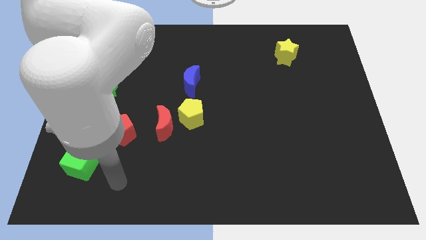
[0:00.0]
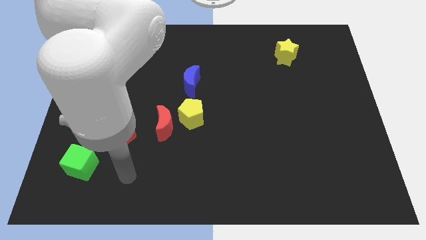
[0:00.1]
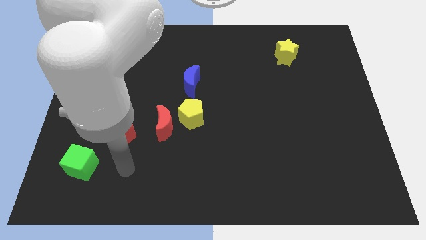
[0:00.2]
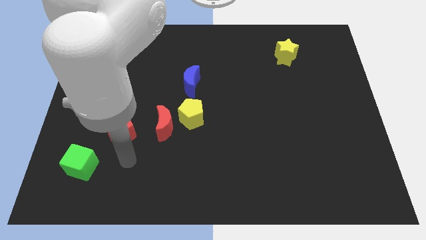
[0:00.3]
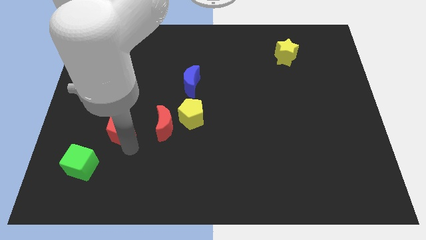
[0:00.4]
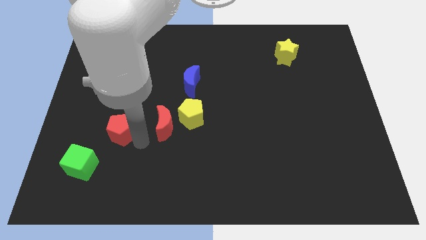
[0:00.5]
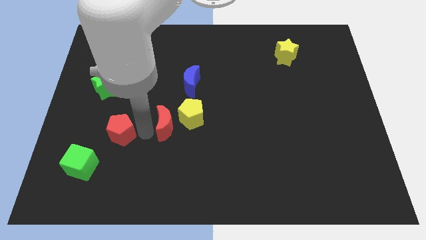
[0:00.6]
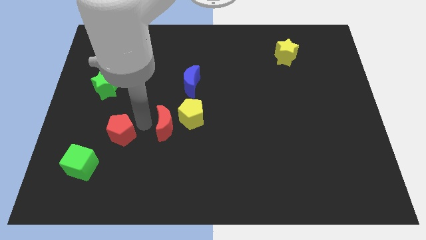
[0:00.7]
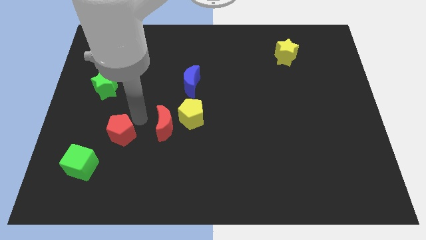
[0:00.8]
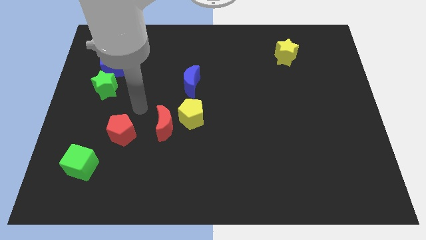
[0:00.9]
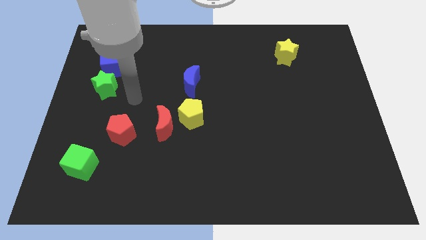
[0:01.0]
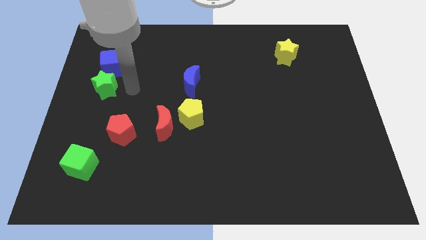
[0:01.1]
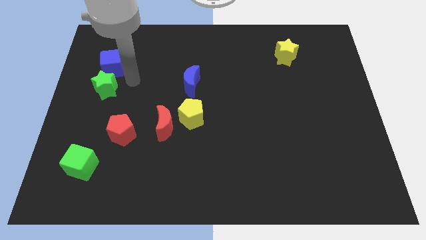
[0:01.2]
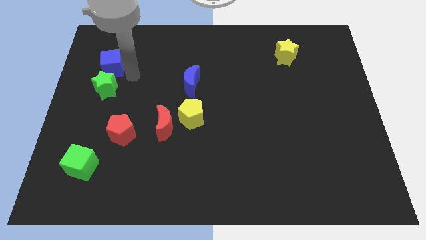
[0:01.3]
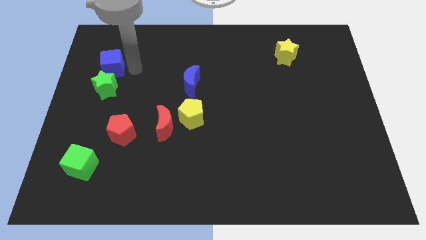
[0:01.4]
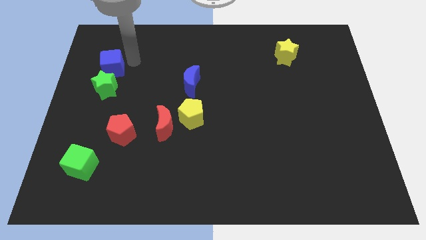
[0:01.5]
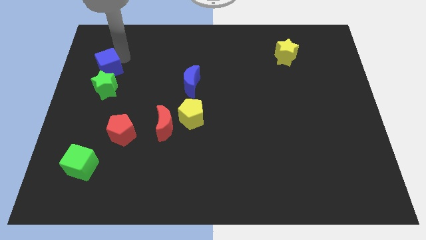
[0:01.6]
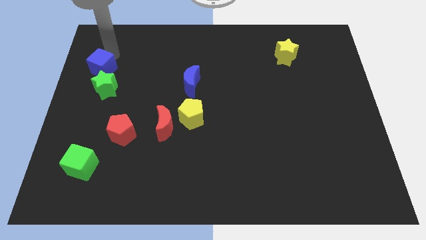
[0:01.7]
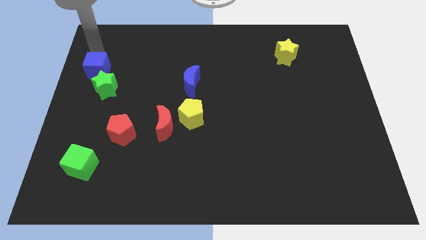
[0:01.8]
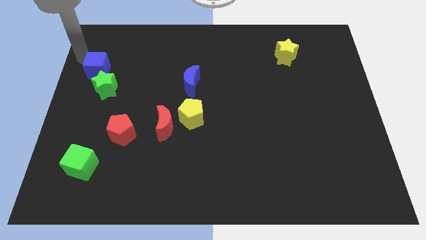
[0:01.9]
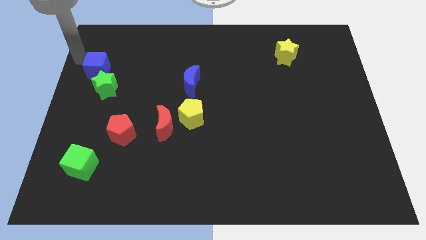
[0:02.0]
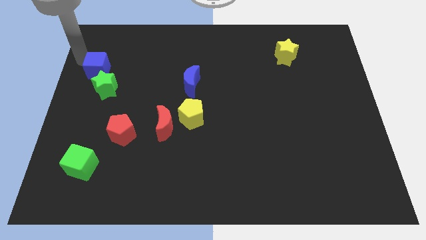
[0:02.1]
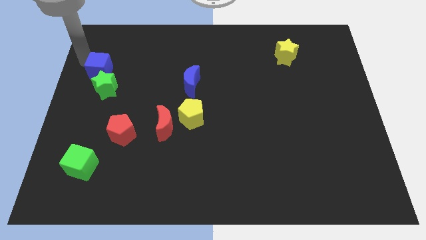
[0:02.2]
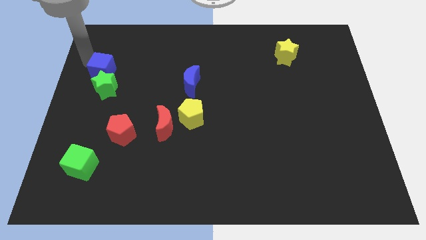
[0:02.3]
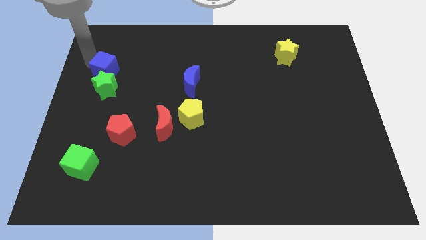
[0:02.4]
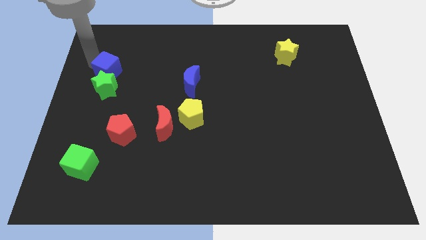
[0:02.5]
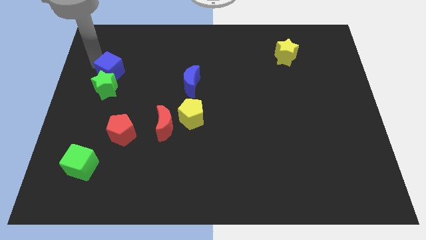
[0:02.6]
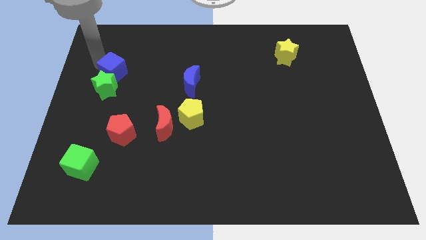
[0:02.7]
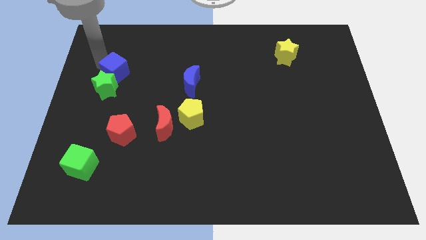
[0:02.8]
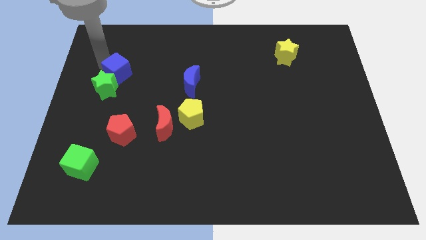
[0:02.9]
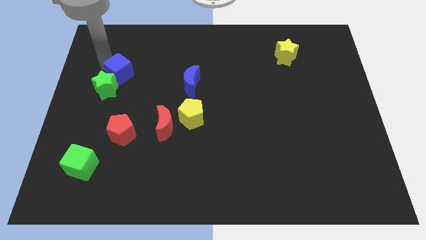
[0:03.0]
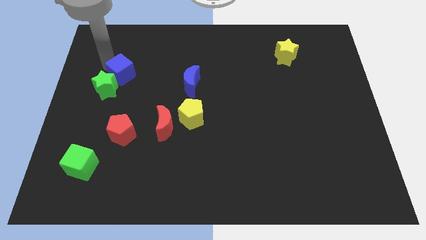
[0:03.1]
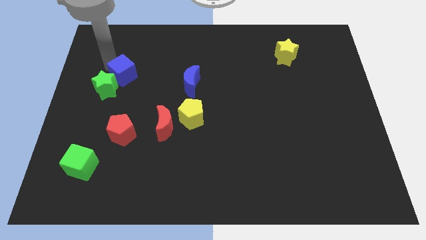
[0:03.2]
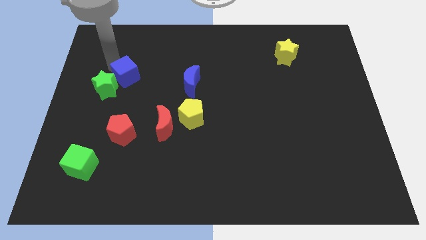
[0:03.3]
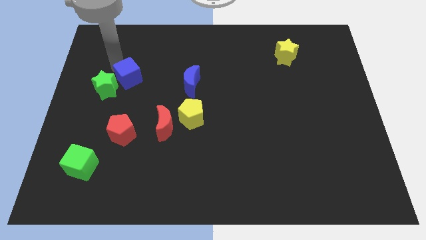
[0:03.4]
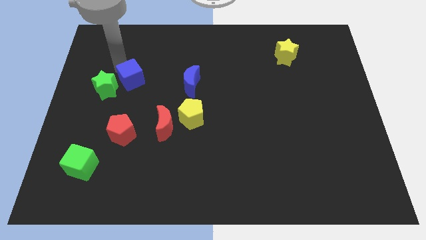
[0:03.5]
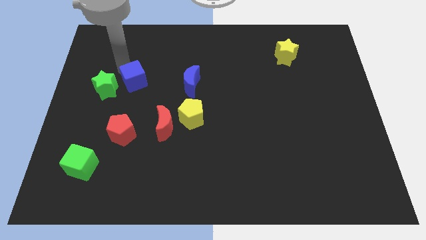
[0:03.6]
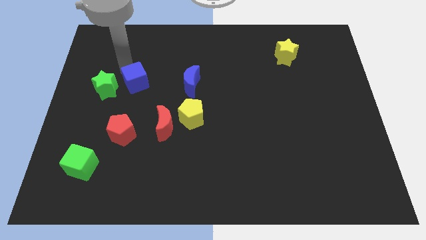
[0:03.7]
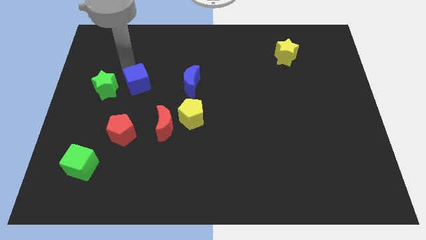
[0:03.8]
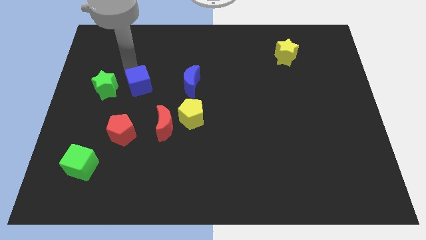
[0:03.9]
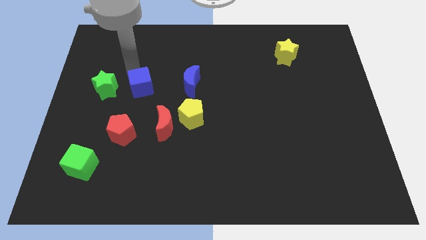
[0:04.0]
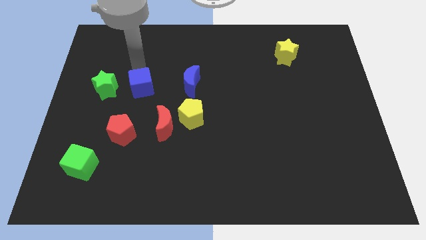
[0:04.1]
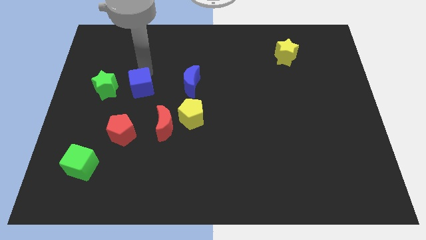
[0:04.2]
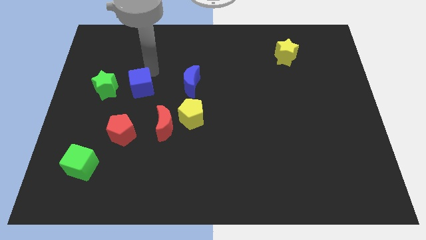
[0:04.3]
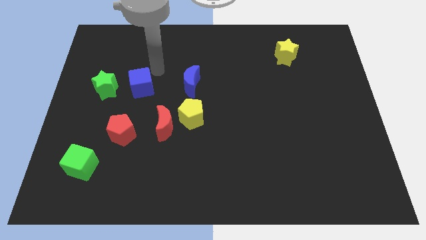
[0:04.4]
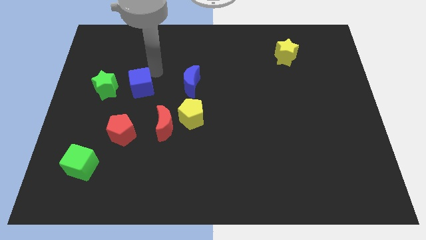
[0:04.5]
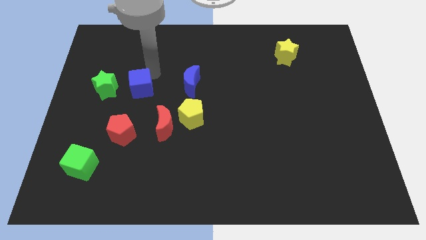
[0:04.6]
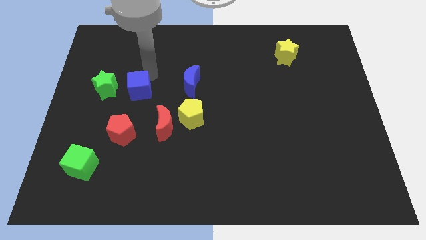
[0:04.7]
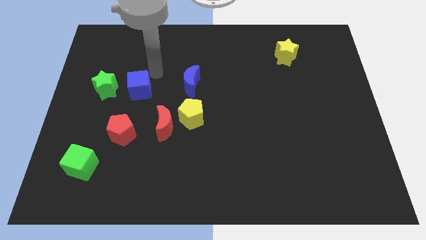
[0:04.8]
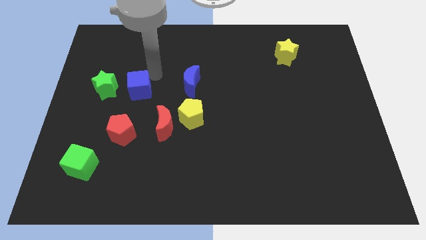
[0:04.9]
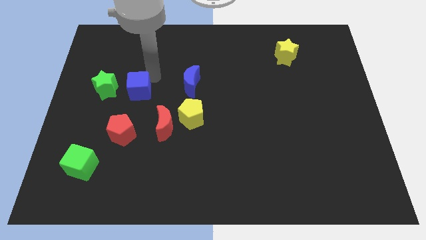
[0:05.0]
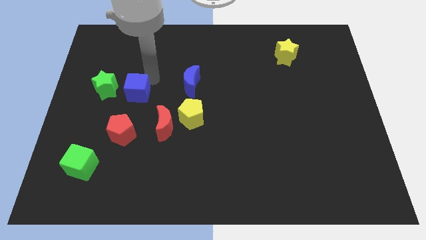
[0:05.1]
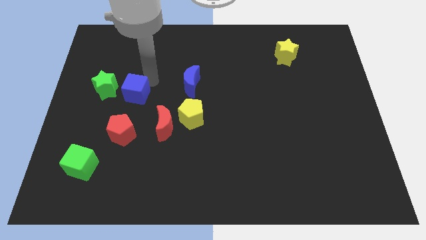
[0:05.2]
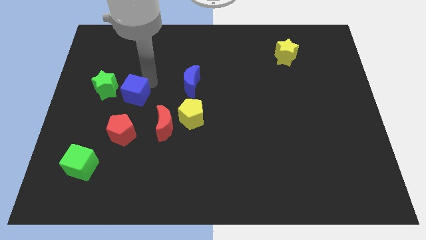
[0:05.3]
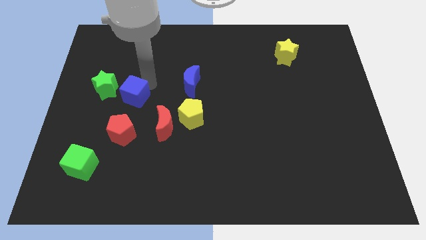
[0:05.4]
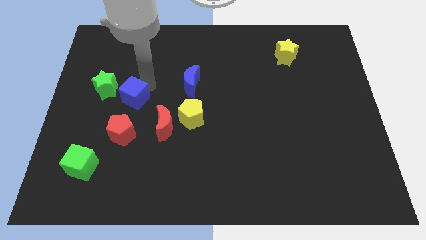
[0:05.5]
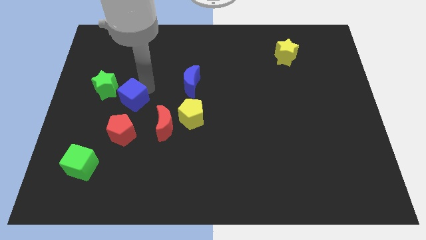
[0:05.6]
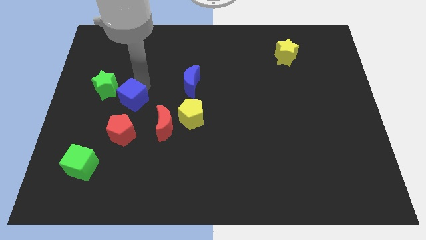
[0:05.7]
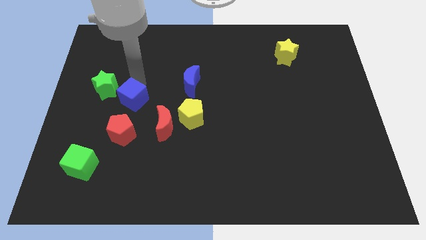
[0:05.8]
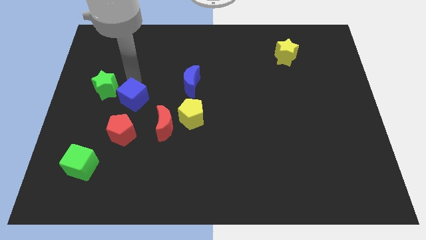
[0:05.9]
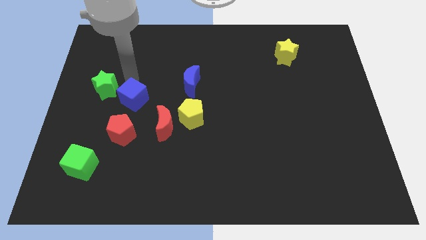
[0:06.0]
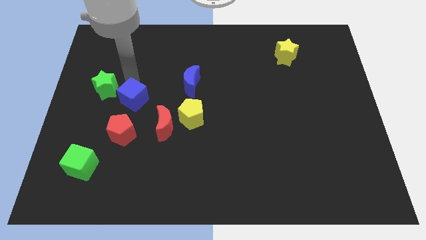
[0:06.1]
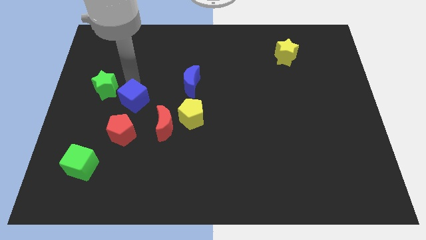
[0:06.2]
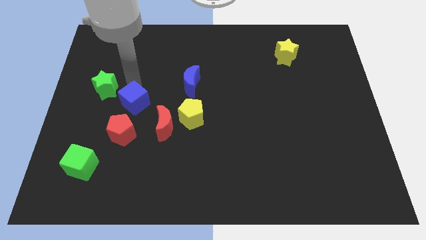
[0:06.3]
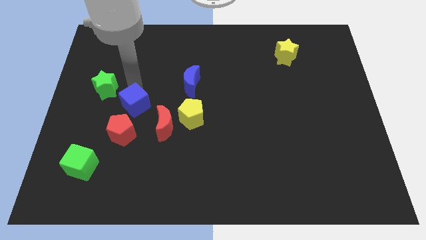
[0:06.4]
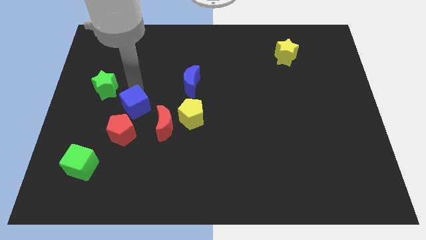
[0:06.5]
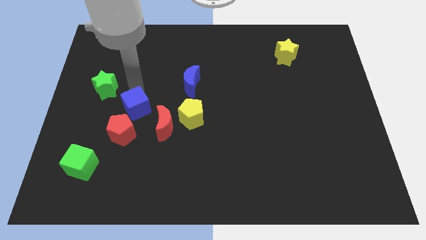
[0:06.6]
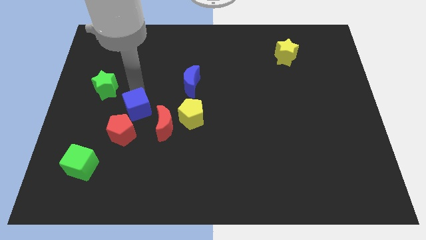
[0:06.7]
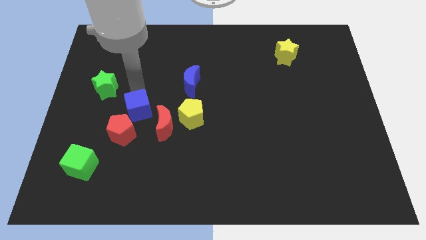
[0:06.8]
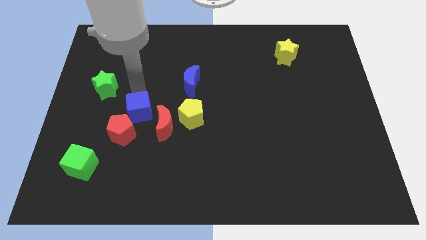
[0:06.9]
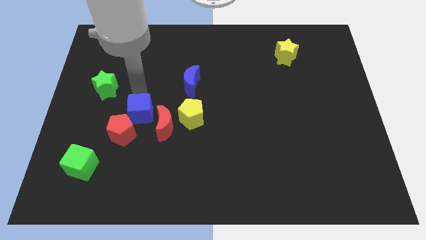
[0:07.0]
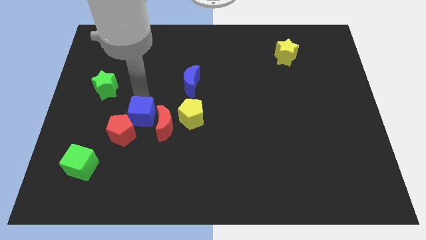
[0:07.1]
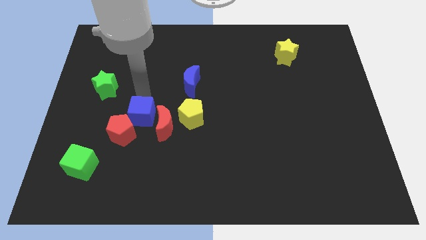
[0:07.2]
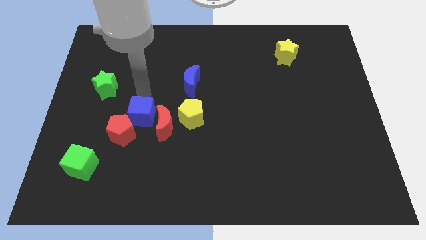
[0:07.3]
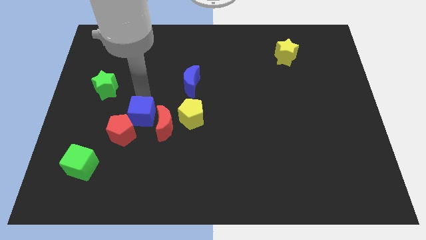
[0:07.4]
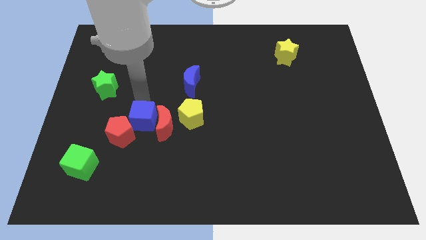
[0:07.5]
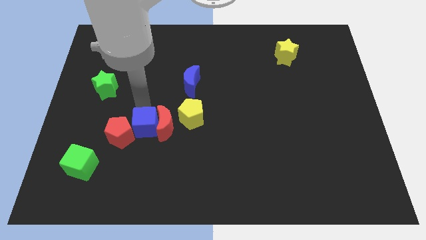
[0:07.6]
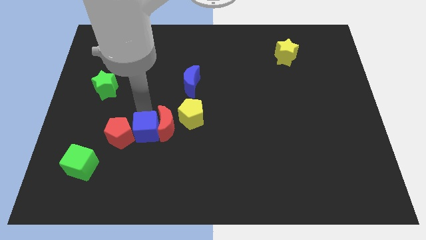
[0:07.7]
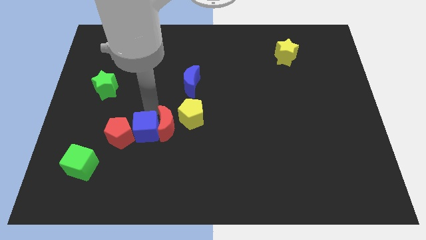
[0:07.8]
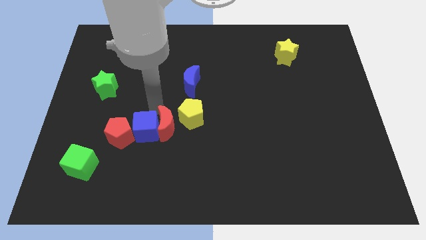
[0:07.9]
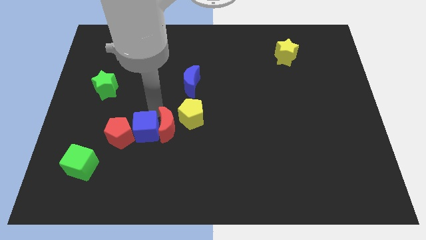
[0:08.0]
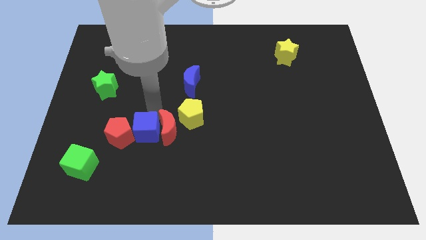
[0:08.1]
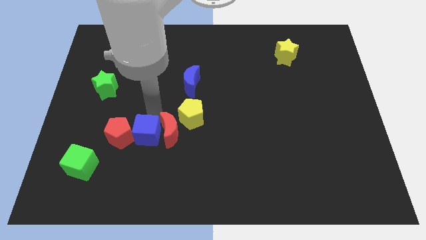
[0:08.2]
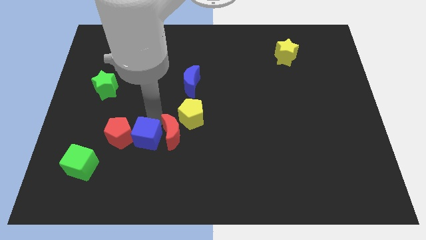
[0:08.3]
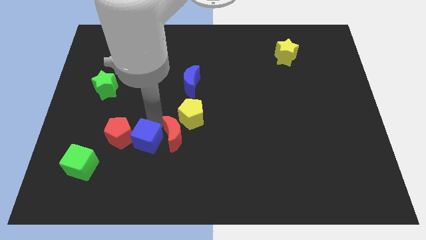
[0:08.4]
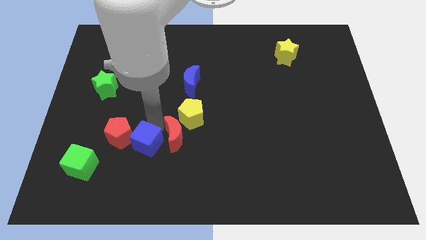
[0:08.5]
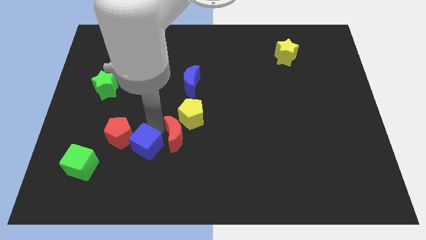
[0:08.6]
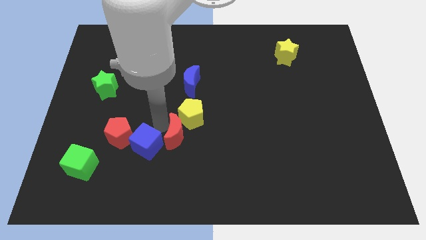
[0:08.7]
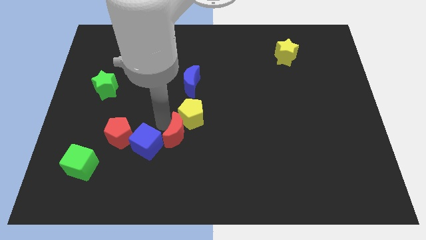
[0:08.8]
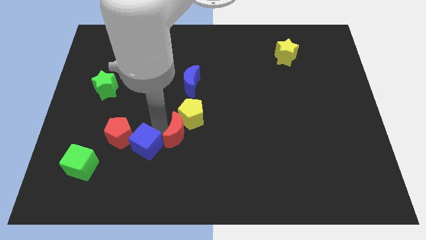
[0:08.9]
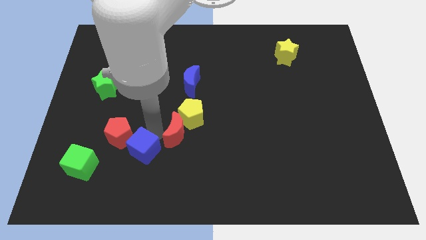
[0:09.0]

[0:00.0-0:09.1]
move the blue cube to the right of the green cube
